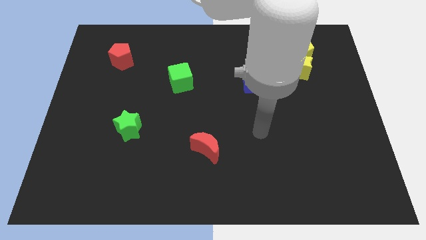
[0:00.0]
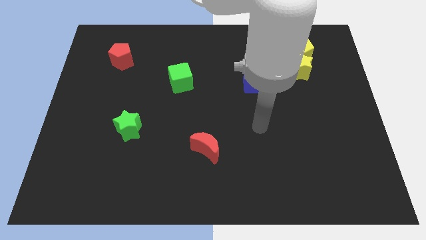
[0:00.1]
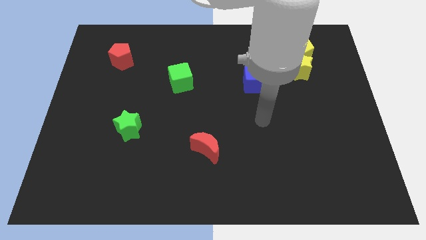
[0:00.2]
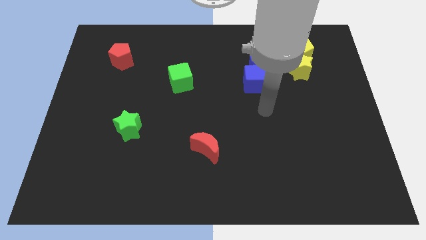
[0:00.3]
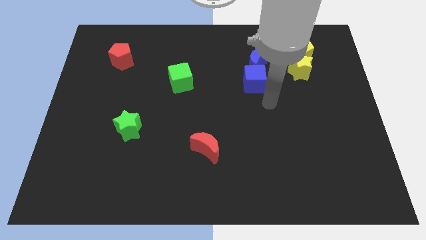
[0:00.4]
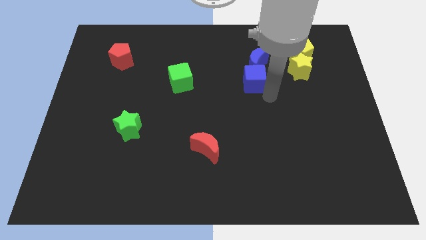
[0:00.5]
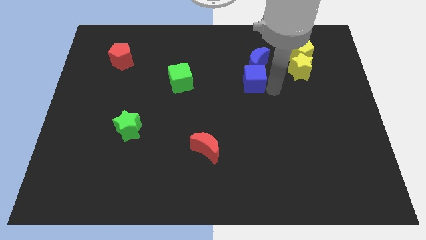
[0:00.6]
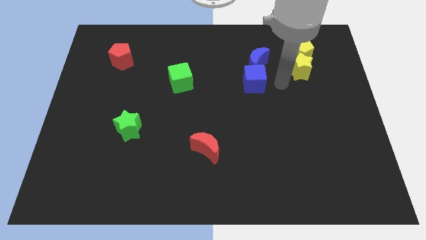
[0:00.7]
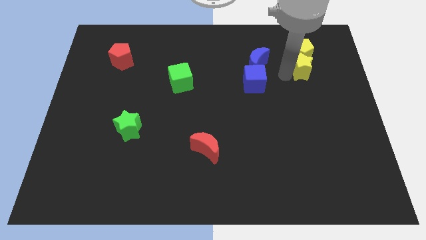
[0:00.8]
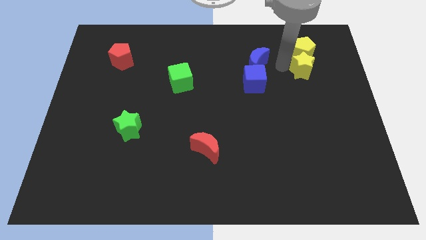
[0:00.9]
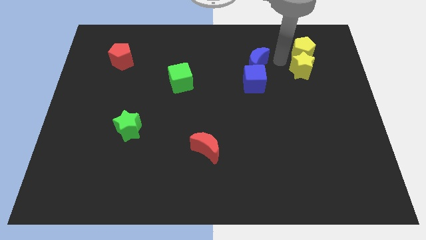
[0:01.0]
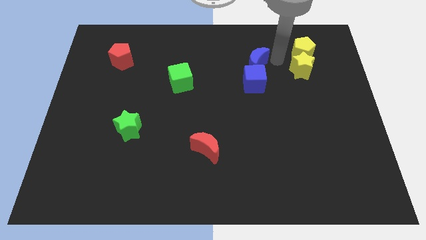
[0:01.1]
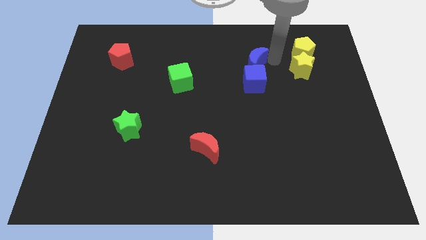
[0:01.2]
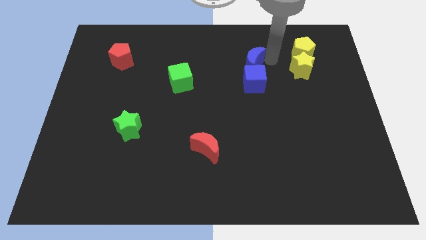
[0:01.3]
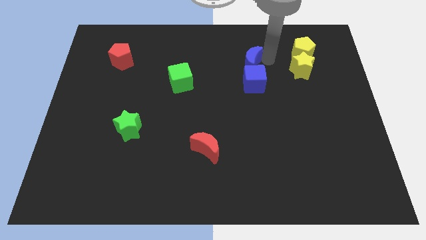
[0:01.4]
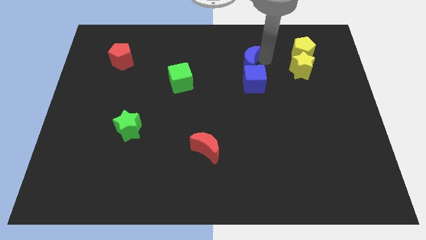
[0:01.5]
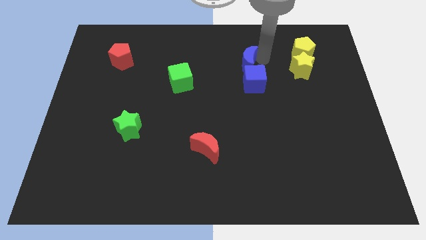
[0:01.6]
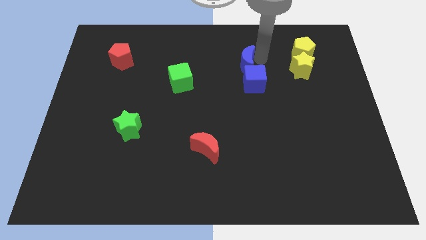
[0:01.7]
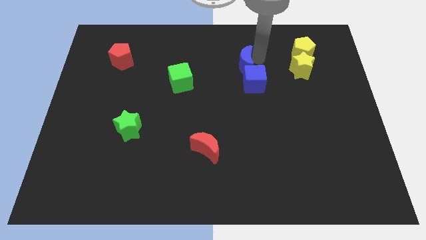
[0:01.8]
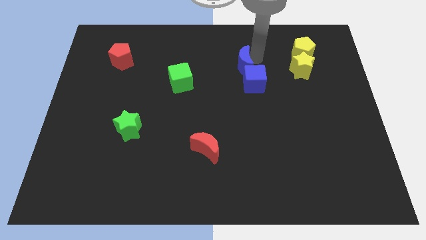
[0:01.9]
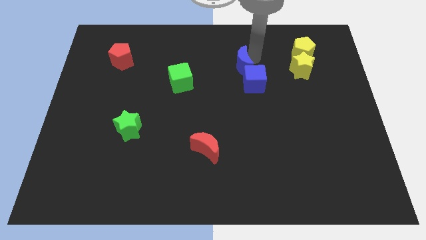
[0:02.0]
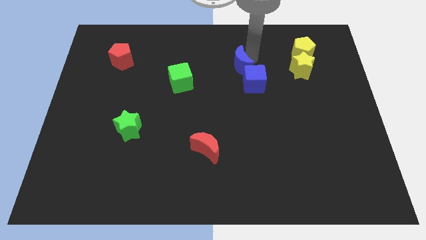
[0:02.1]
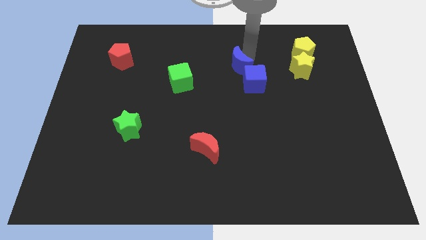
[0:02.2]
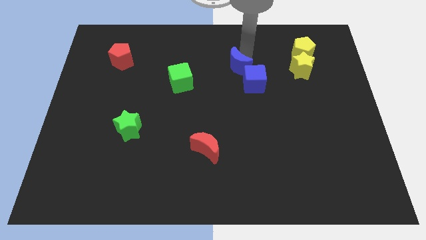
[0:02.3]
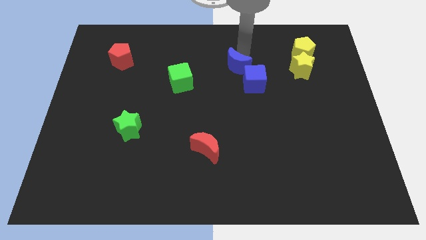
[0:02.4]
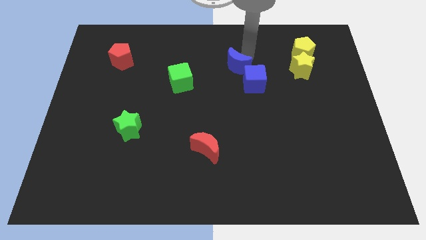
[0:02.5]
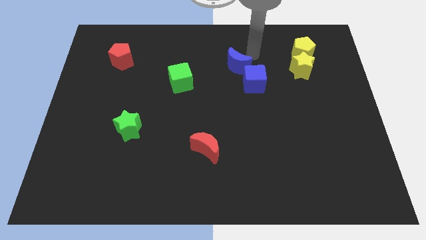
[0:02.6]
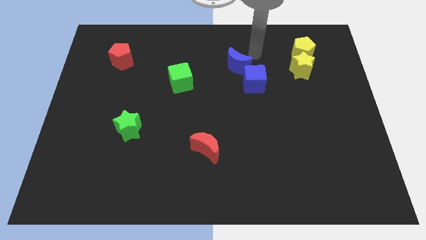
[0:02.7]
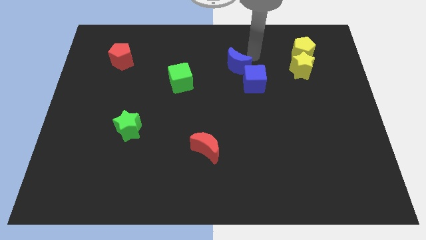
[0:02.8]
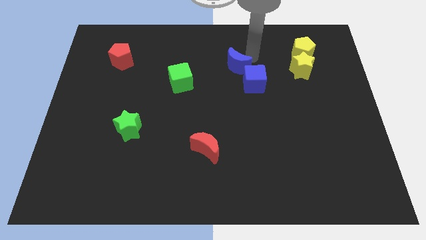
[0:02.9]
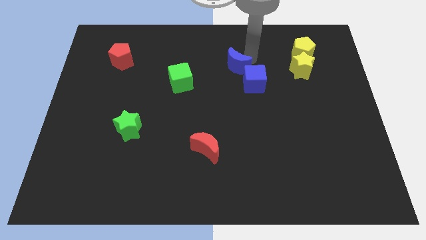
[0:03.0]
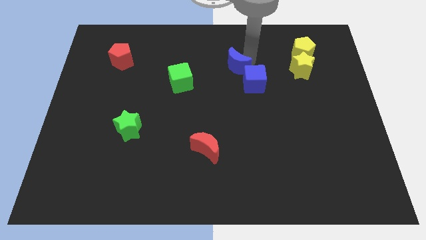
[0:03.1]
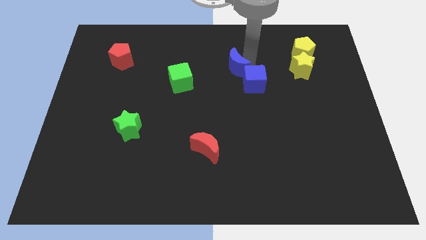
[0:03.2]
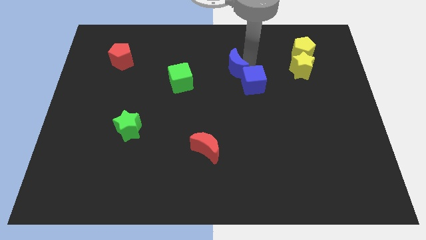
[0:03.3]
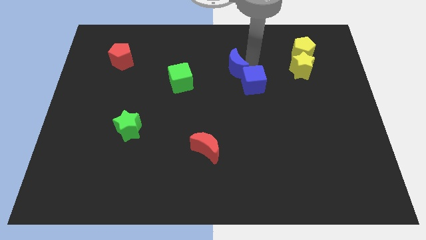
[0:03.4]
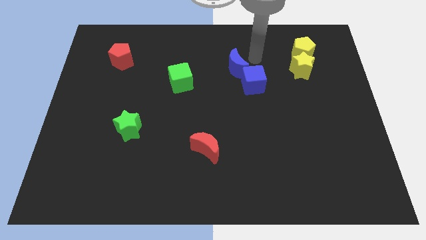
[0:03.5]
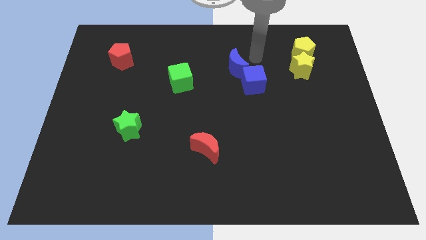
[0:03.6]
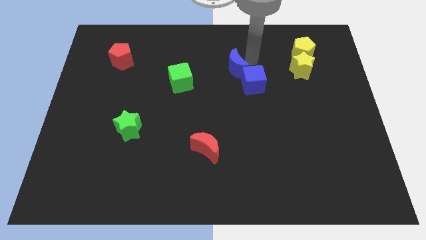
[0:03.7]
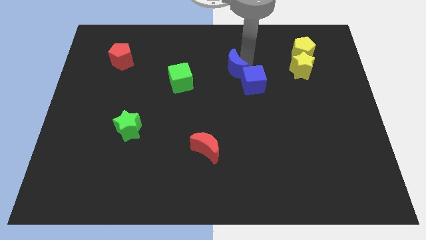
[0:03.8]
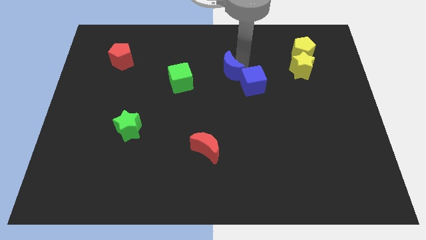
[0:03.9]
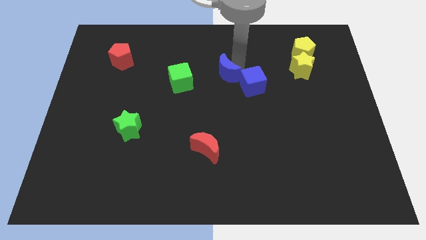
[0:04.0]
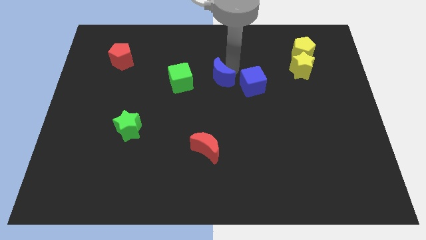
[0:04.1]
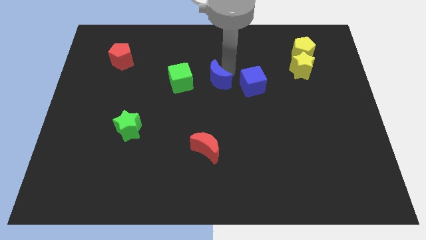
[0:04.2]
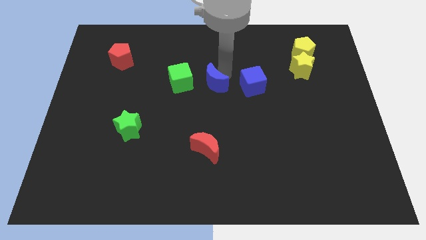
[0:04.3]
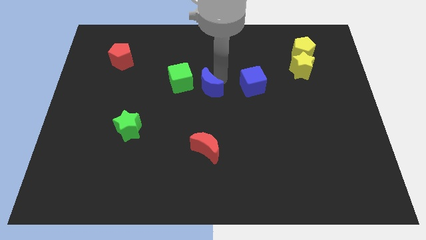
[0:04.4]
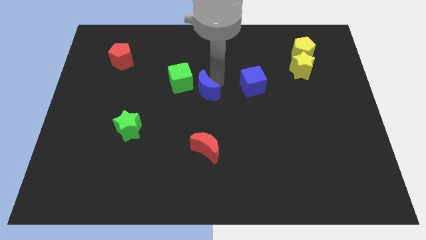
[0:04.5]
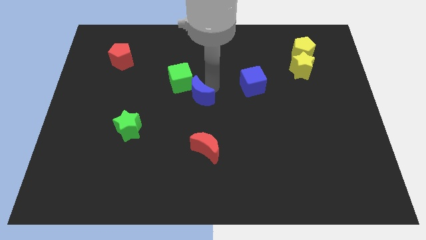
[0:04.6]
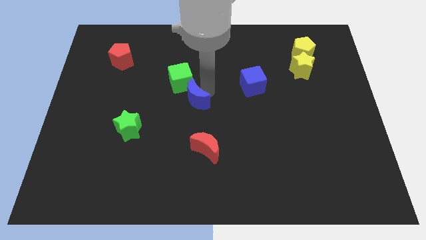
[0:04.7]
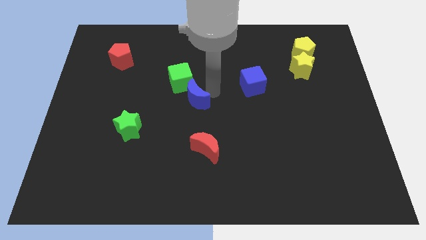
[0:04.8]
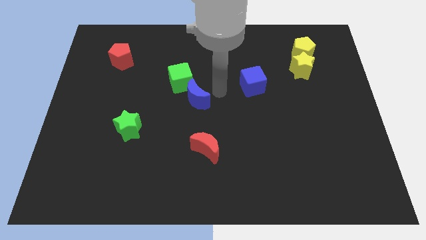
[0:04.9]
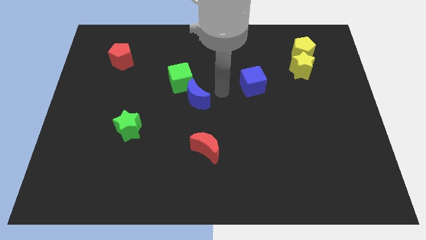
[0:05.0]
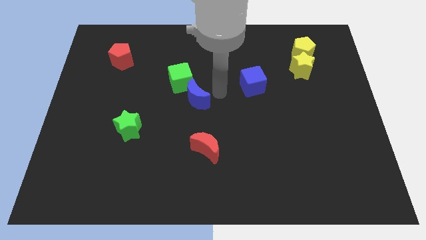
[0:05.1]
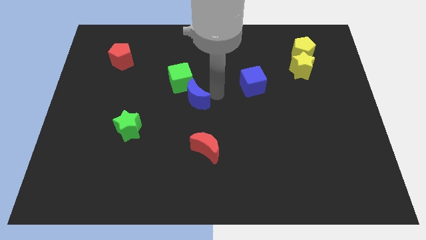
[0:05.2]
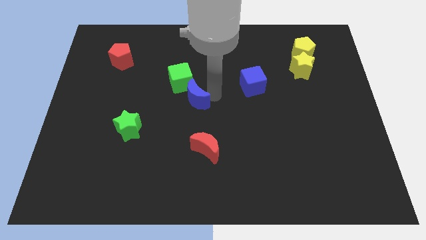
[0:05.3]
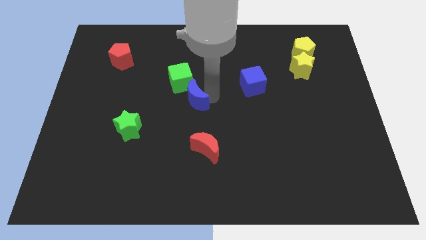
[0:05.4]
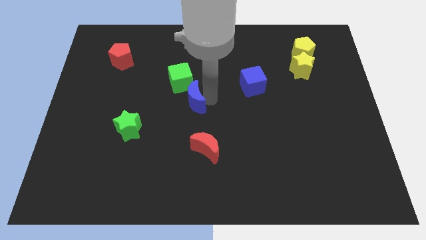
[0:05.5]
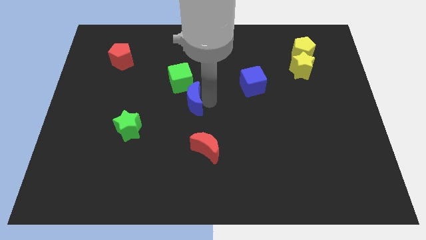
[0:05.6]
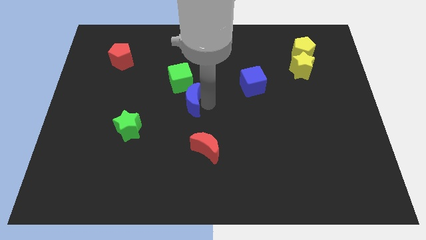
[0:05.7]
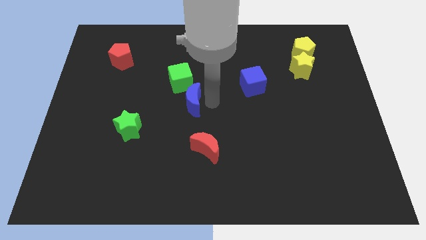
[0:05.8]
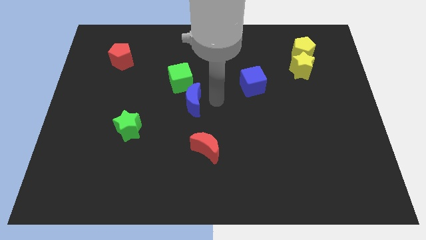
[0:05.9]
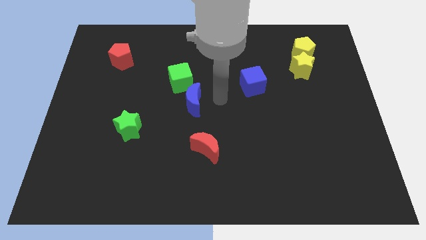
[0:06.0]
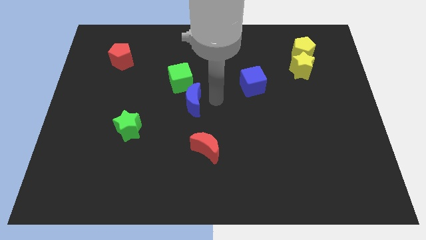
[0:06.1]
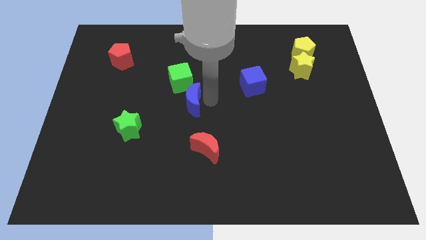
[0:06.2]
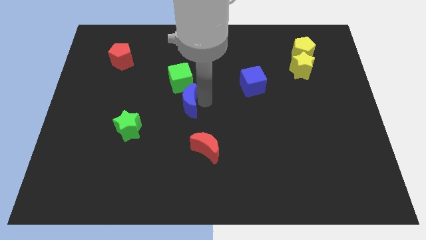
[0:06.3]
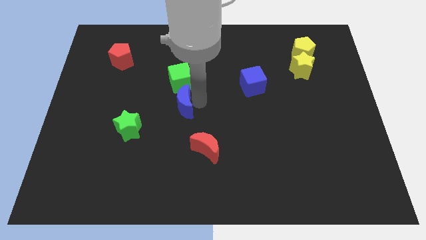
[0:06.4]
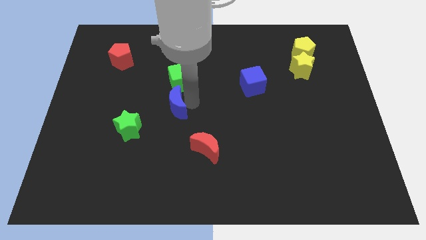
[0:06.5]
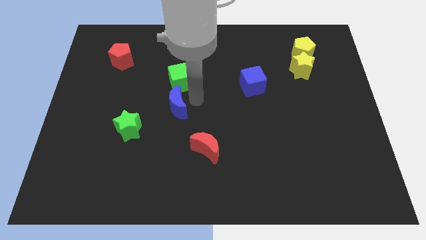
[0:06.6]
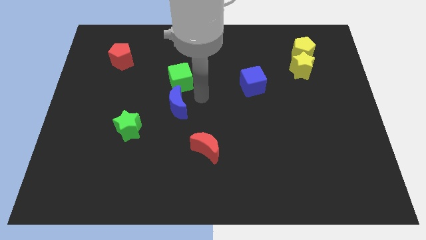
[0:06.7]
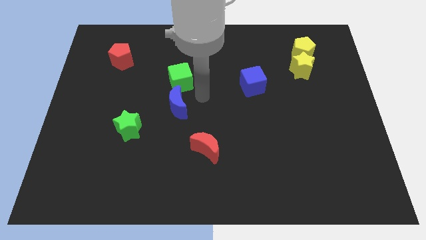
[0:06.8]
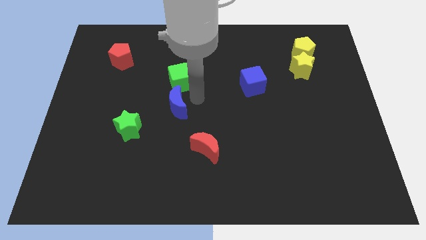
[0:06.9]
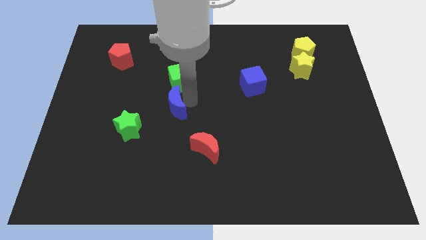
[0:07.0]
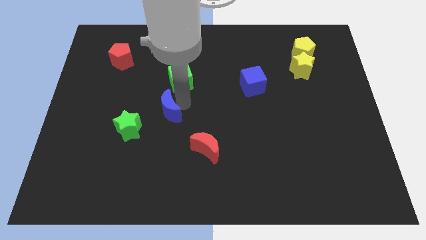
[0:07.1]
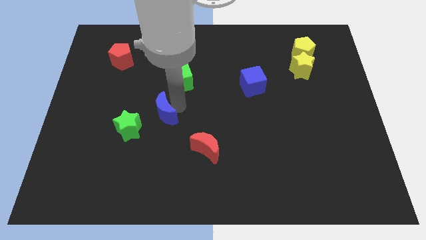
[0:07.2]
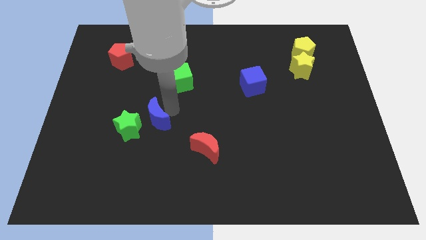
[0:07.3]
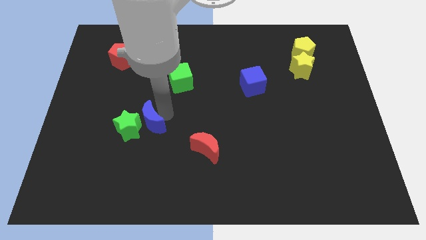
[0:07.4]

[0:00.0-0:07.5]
move the blue moon close to the green star
